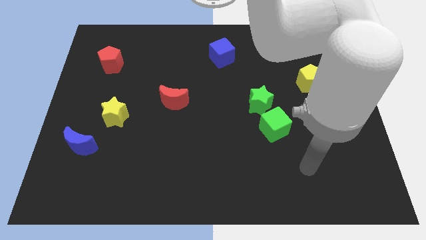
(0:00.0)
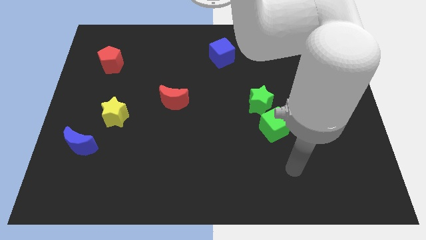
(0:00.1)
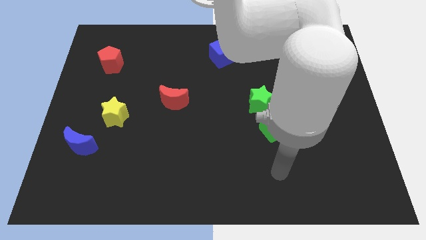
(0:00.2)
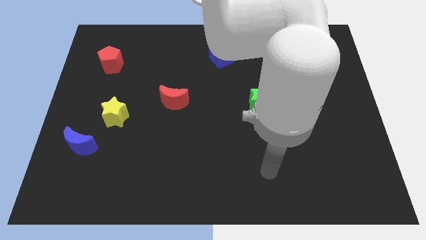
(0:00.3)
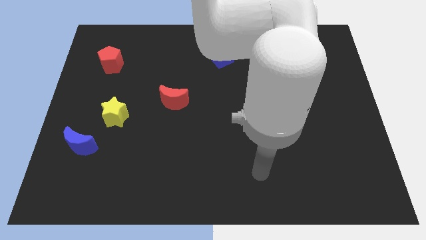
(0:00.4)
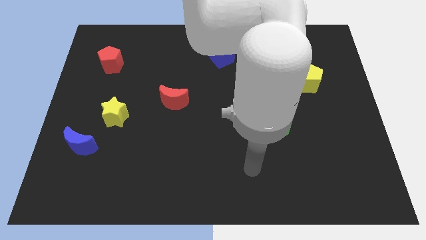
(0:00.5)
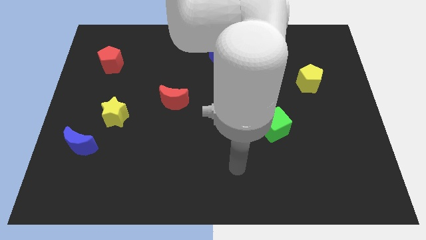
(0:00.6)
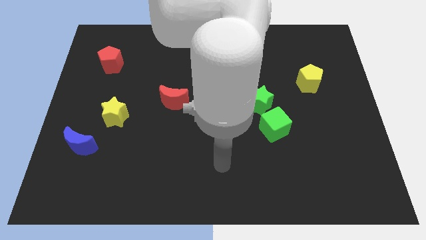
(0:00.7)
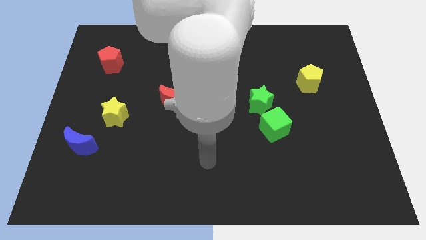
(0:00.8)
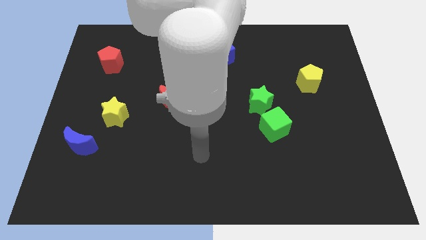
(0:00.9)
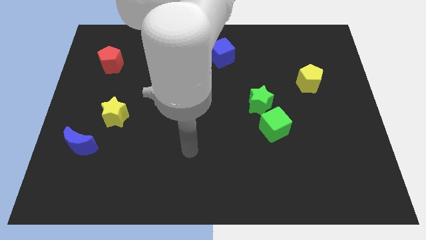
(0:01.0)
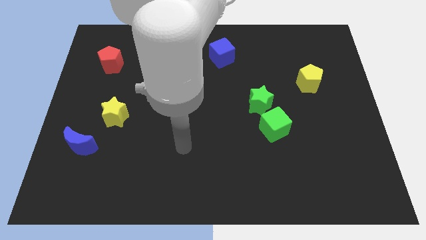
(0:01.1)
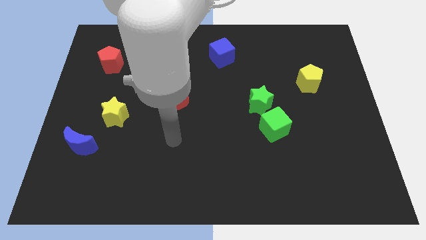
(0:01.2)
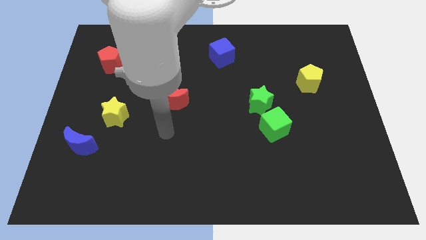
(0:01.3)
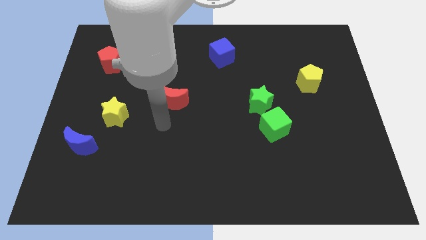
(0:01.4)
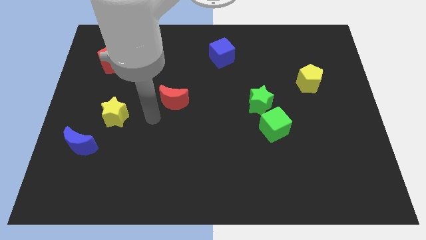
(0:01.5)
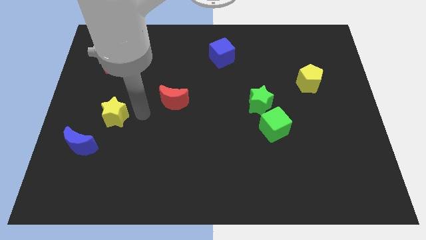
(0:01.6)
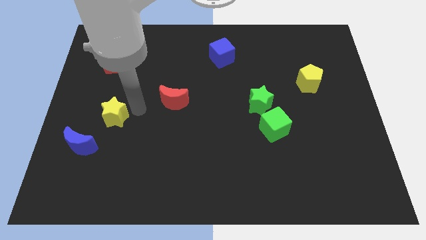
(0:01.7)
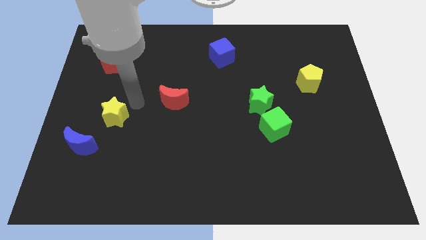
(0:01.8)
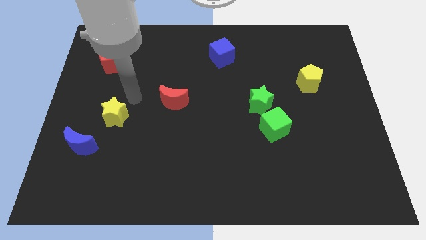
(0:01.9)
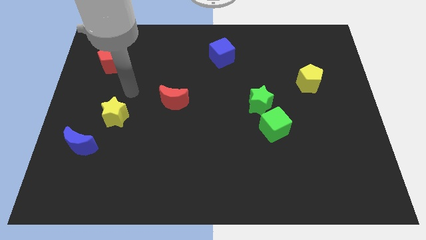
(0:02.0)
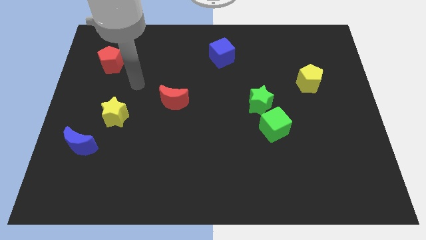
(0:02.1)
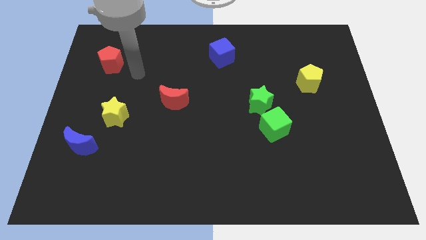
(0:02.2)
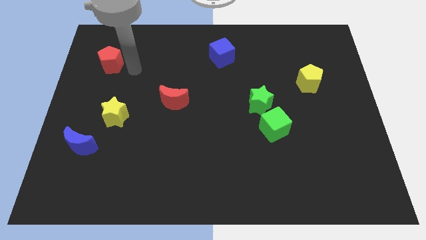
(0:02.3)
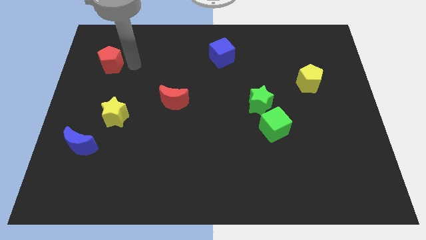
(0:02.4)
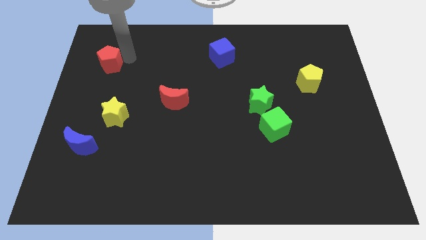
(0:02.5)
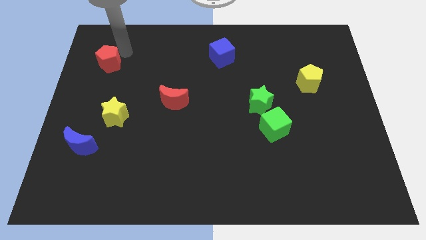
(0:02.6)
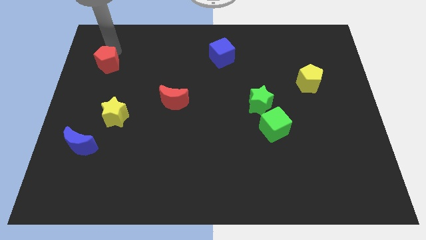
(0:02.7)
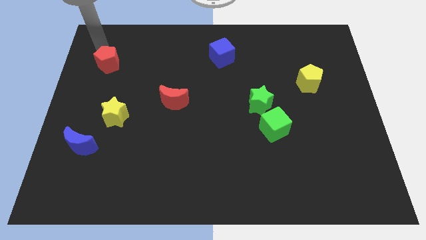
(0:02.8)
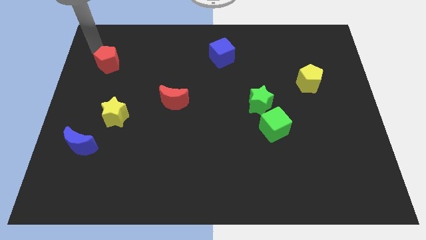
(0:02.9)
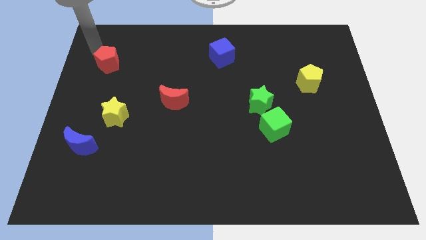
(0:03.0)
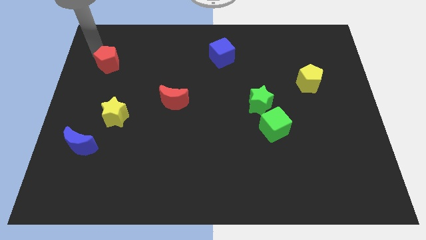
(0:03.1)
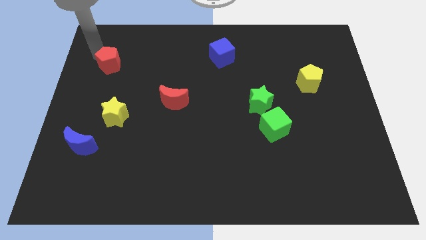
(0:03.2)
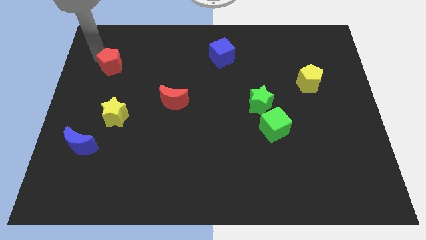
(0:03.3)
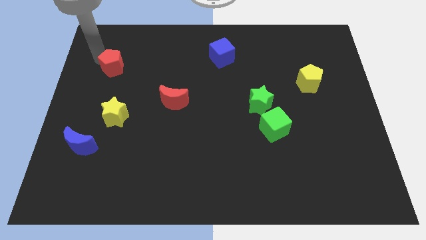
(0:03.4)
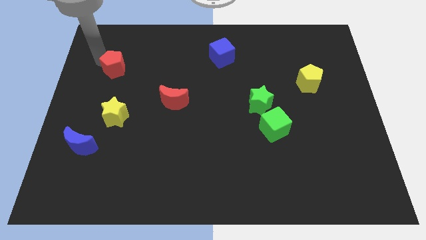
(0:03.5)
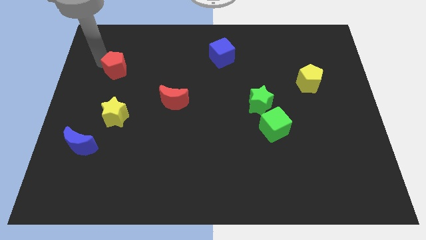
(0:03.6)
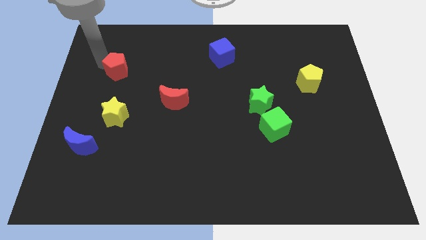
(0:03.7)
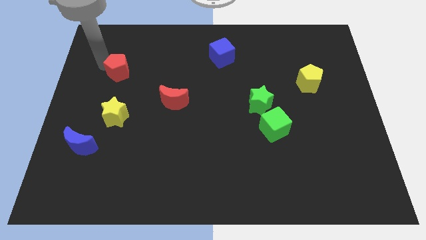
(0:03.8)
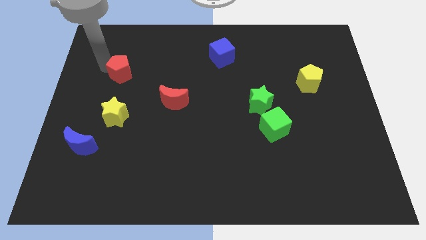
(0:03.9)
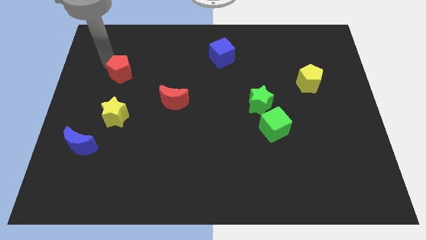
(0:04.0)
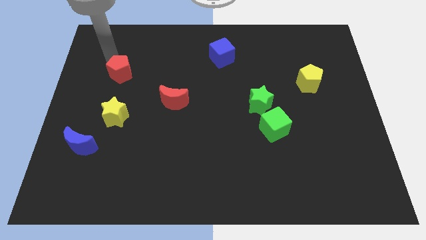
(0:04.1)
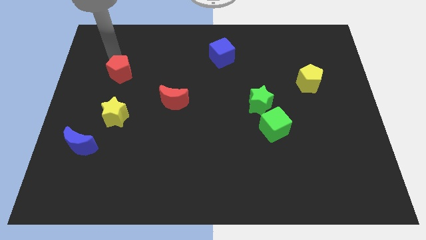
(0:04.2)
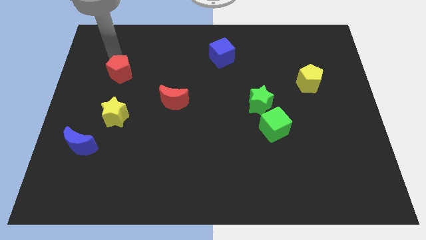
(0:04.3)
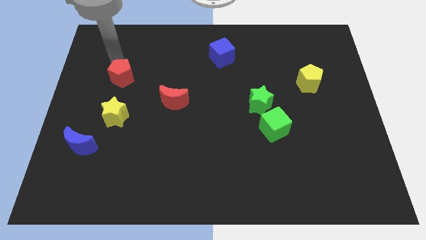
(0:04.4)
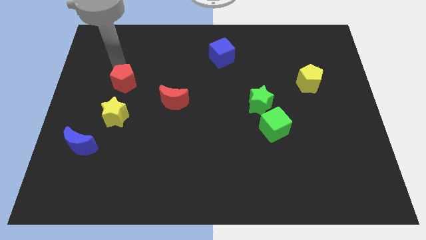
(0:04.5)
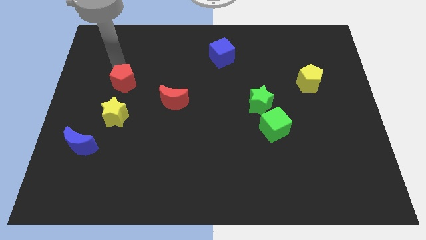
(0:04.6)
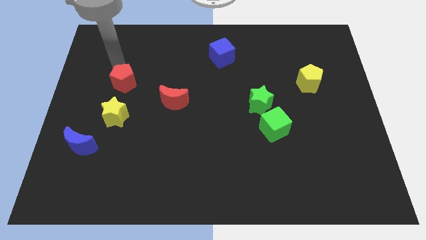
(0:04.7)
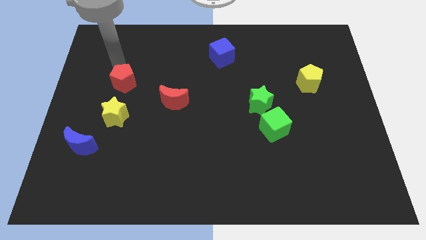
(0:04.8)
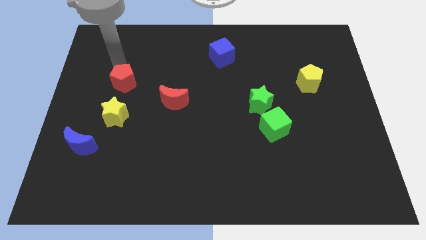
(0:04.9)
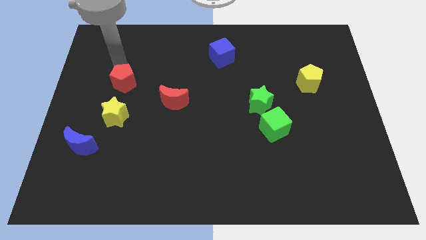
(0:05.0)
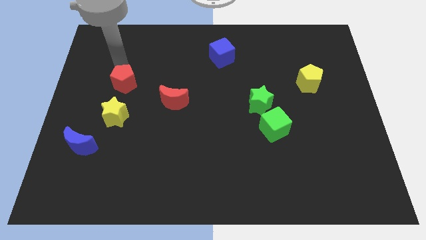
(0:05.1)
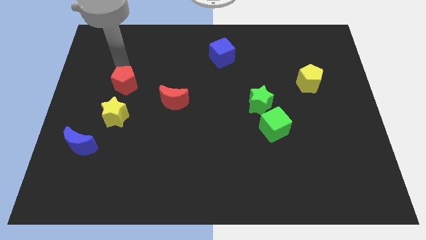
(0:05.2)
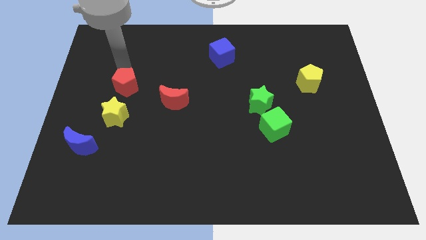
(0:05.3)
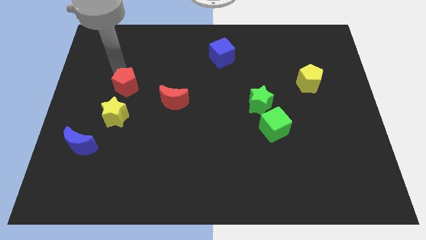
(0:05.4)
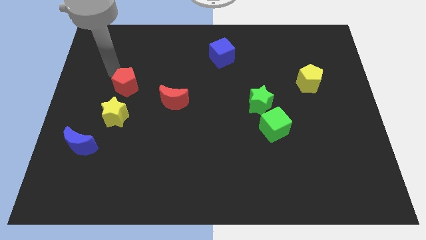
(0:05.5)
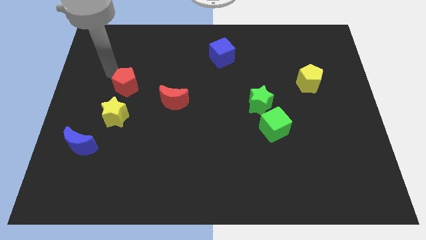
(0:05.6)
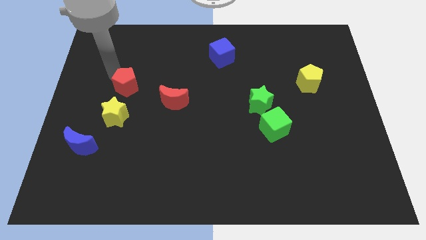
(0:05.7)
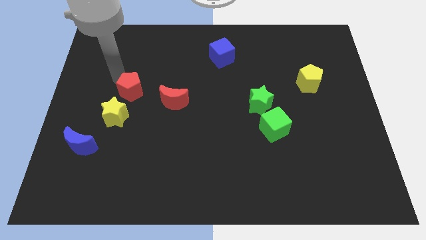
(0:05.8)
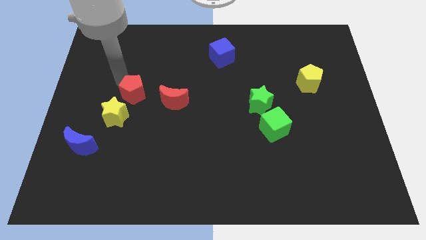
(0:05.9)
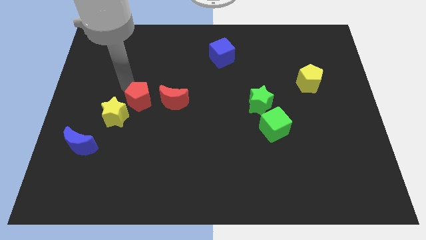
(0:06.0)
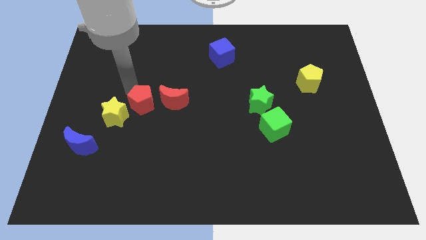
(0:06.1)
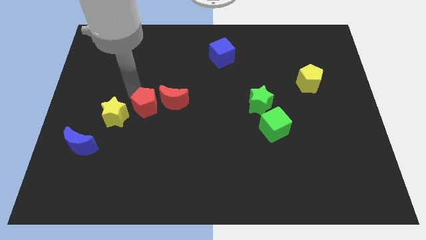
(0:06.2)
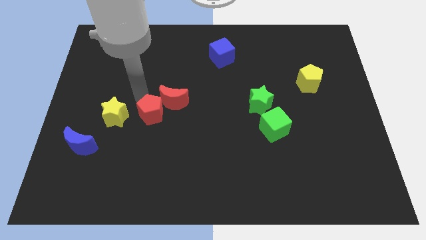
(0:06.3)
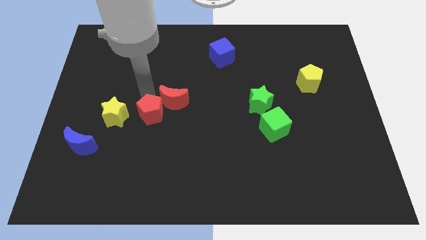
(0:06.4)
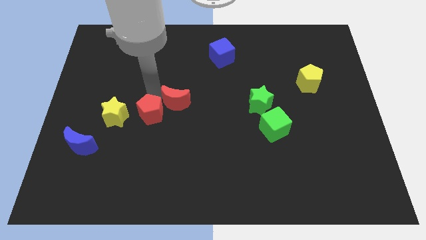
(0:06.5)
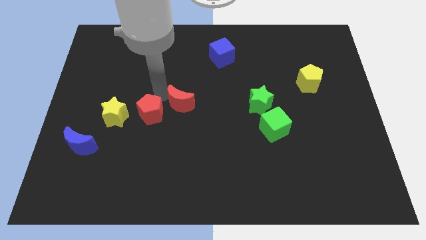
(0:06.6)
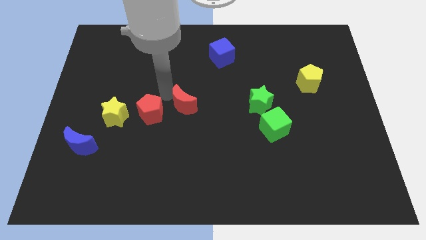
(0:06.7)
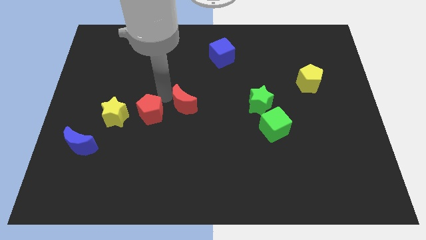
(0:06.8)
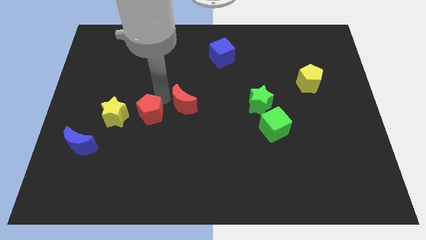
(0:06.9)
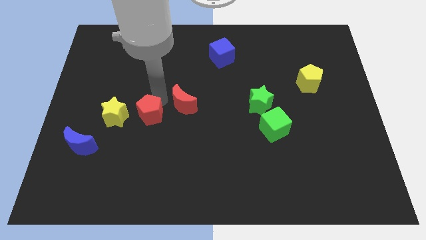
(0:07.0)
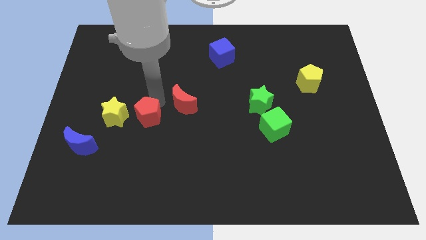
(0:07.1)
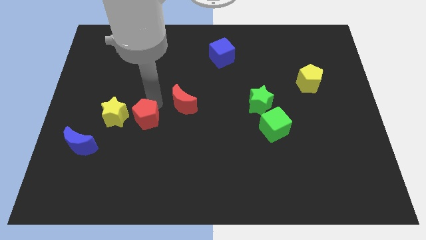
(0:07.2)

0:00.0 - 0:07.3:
put the red pentagon diagonally down and to the right of the yellow star
